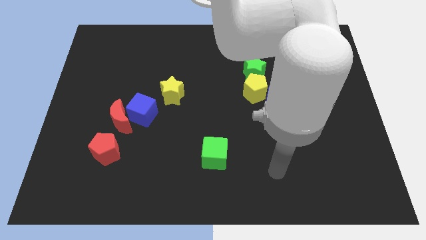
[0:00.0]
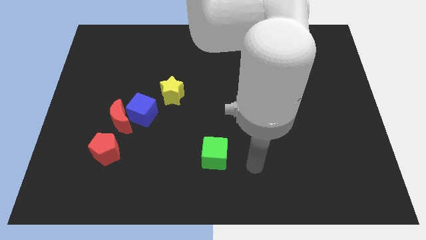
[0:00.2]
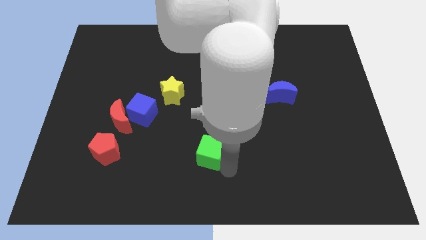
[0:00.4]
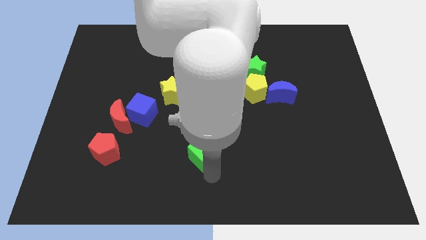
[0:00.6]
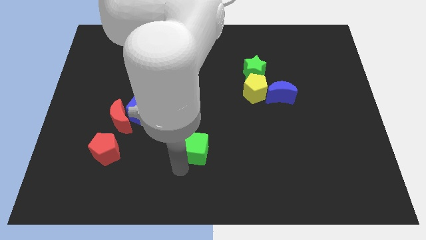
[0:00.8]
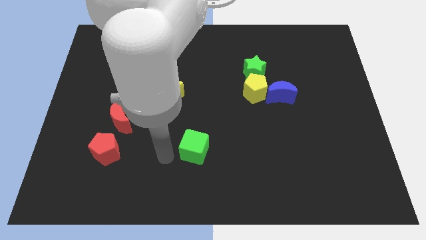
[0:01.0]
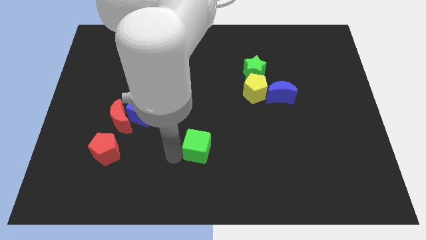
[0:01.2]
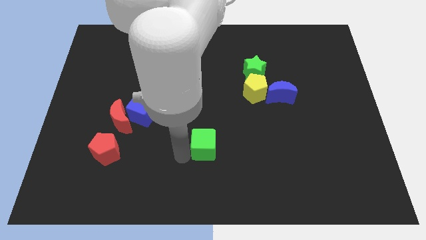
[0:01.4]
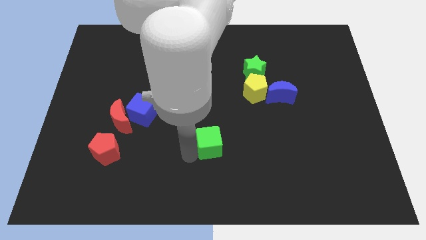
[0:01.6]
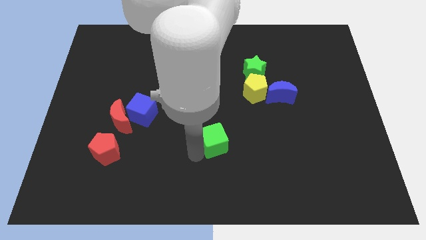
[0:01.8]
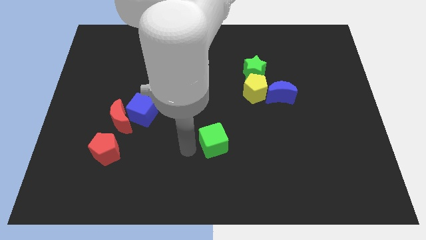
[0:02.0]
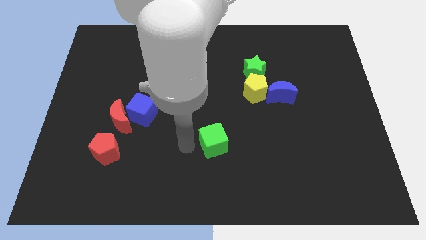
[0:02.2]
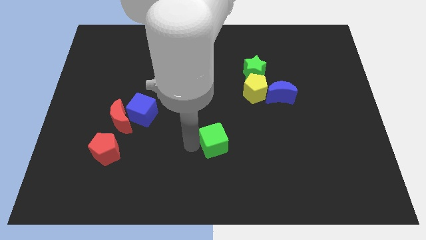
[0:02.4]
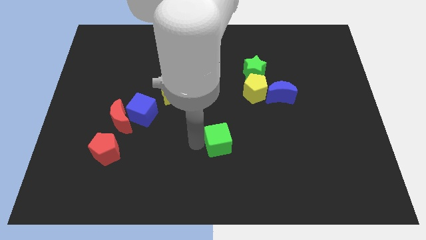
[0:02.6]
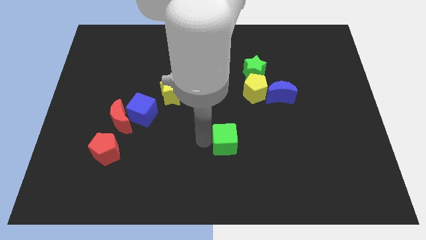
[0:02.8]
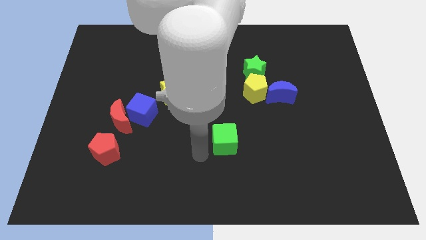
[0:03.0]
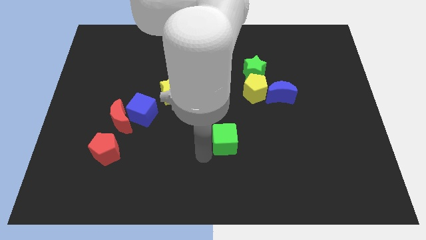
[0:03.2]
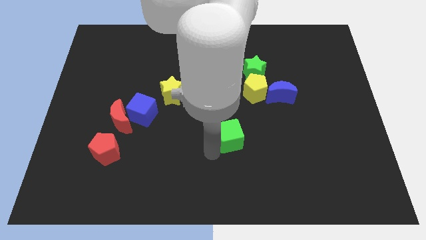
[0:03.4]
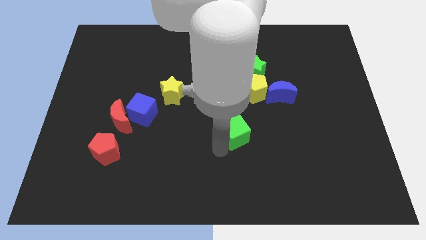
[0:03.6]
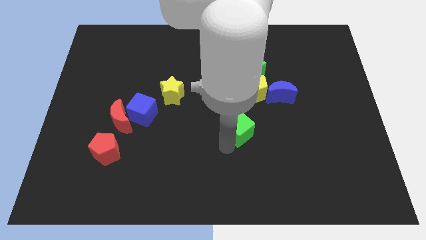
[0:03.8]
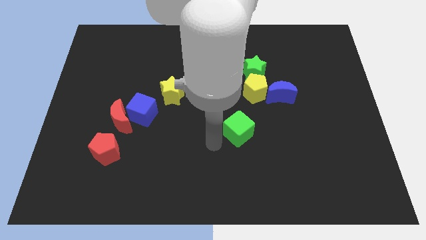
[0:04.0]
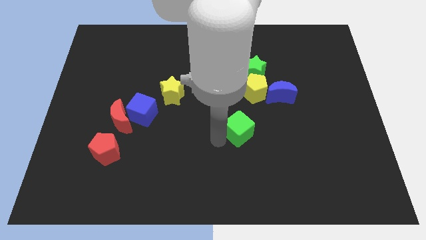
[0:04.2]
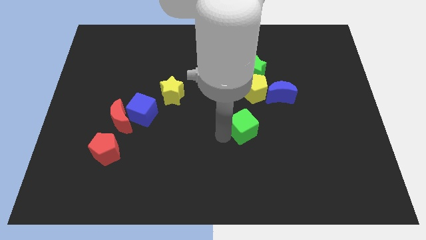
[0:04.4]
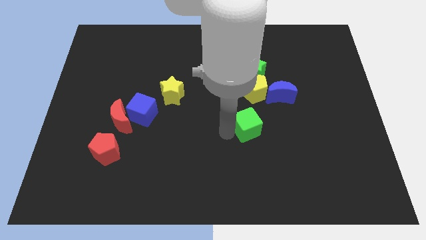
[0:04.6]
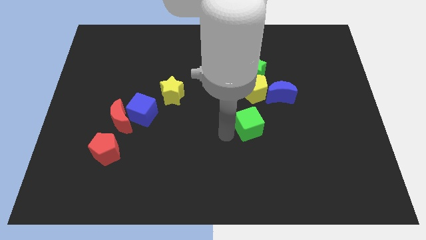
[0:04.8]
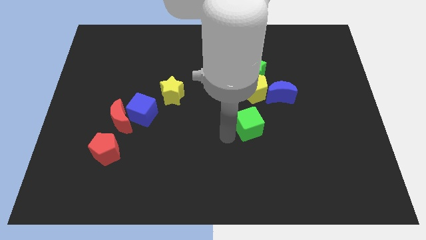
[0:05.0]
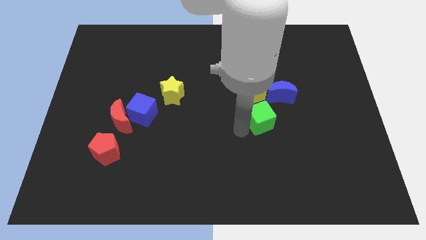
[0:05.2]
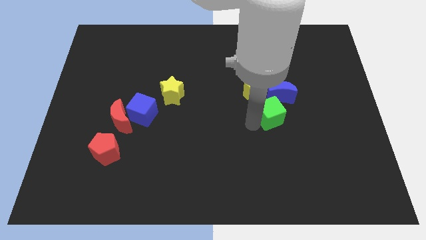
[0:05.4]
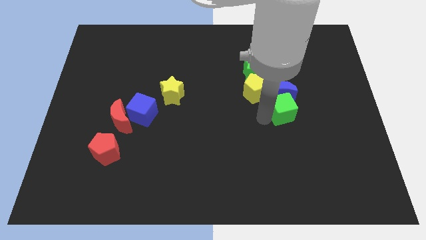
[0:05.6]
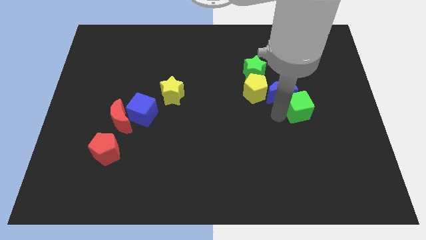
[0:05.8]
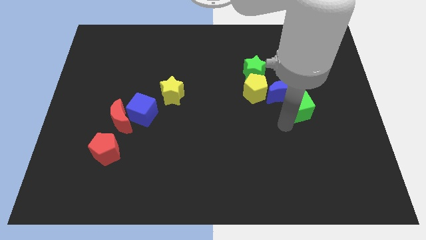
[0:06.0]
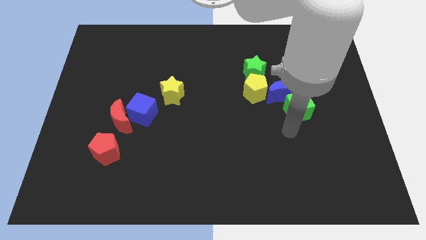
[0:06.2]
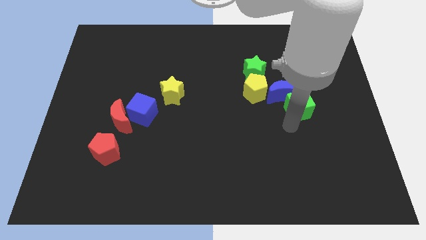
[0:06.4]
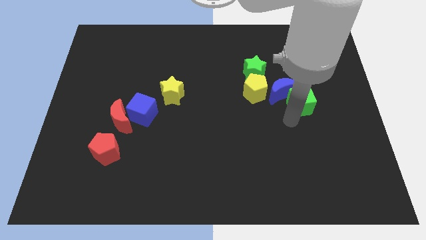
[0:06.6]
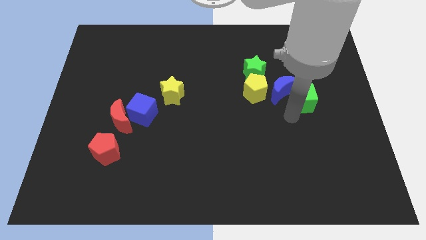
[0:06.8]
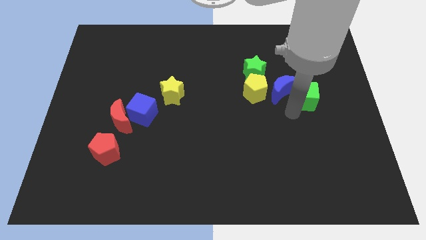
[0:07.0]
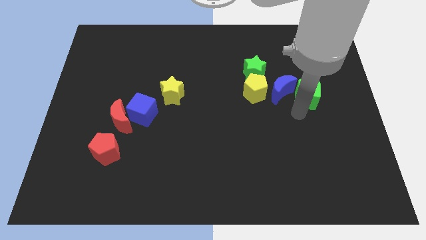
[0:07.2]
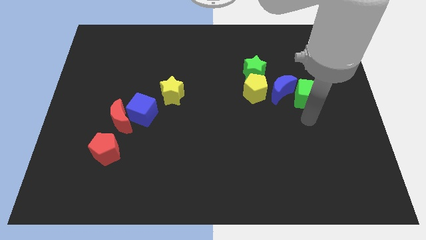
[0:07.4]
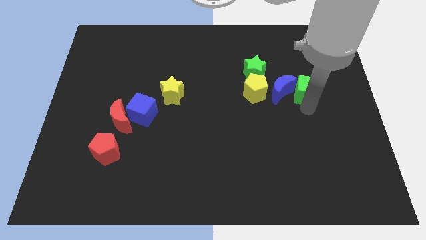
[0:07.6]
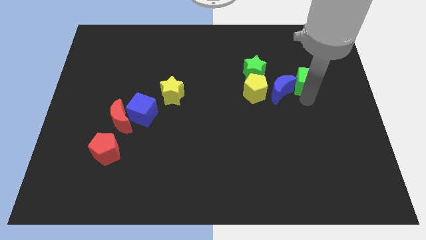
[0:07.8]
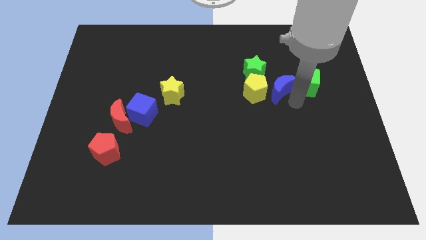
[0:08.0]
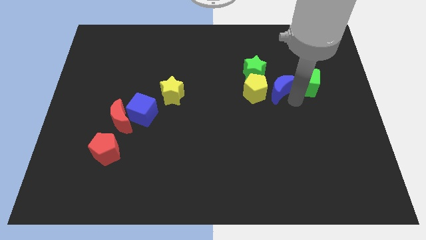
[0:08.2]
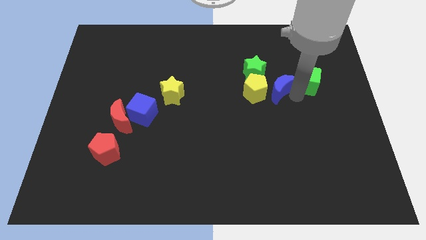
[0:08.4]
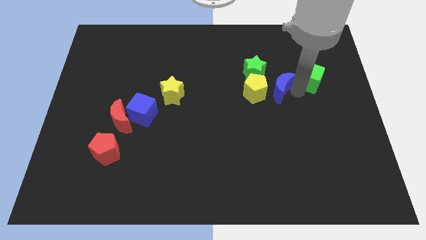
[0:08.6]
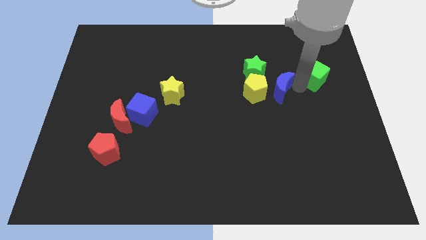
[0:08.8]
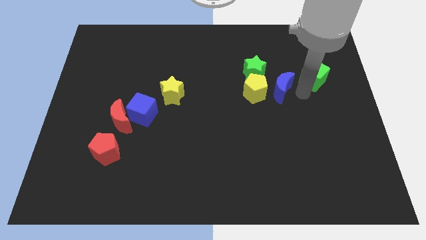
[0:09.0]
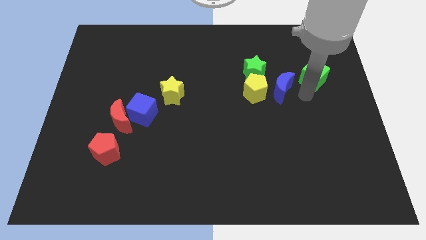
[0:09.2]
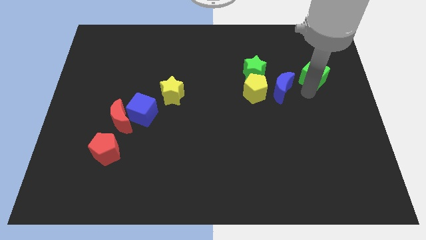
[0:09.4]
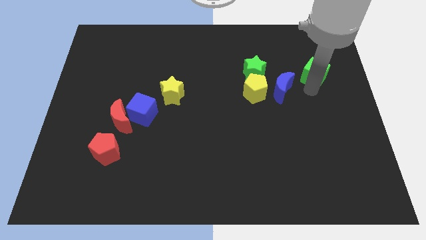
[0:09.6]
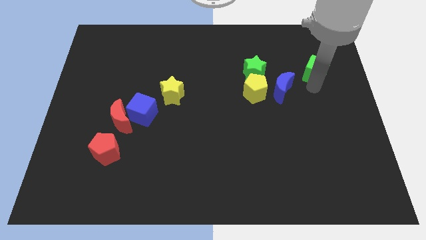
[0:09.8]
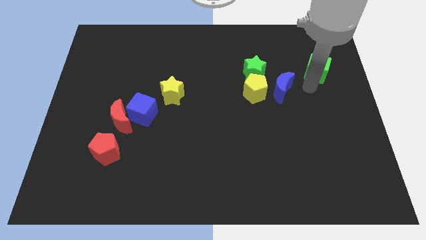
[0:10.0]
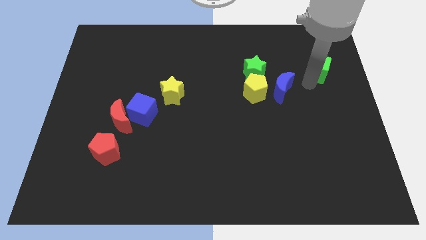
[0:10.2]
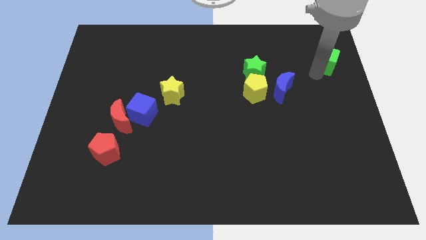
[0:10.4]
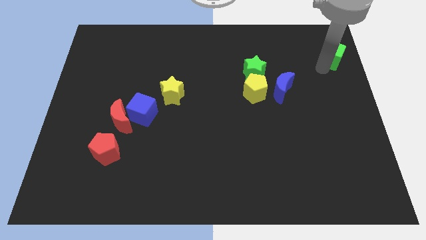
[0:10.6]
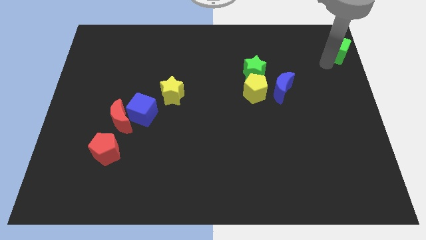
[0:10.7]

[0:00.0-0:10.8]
put the green cube to the top right

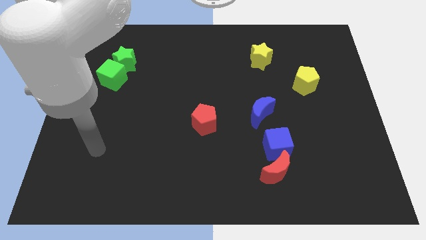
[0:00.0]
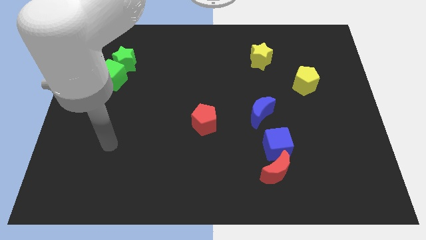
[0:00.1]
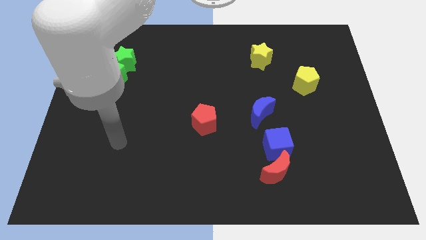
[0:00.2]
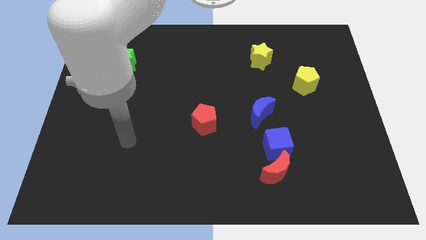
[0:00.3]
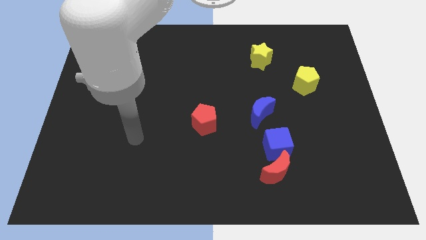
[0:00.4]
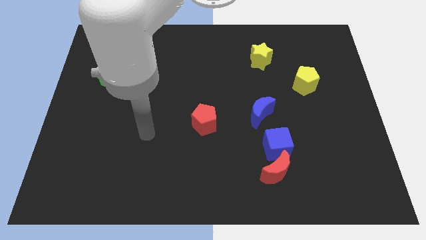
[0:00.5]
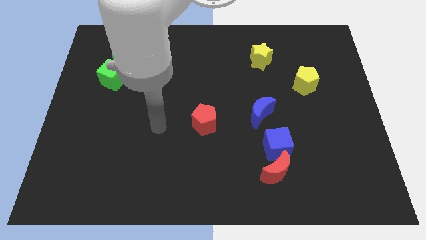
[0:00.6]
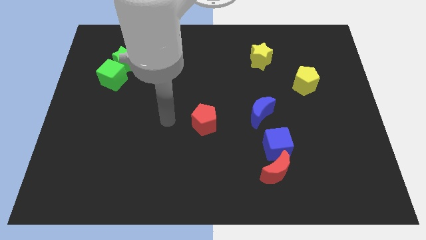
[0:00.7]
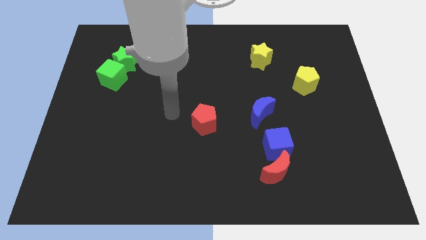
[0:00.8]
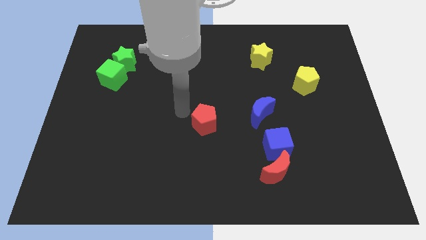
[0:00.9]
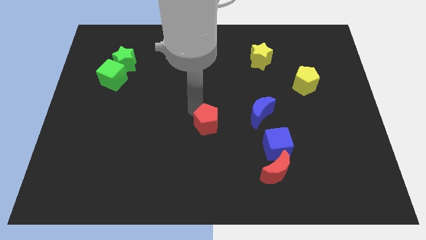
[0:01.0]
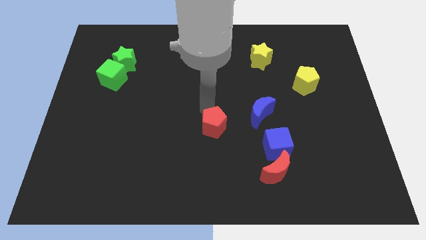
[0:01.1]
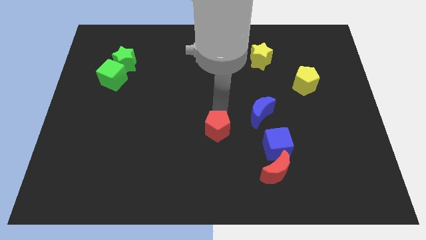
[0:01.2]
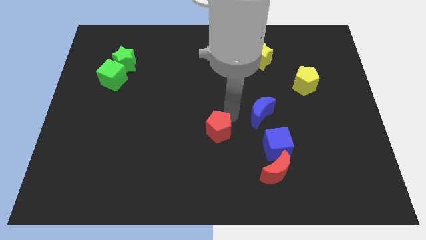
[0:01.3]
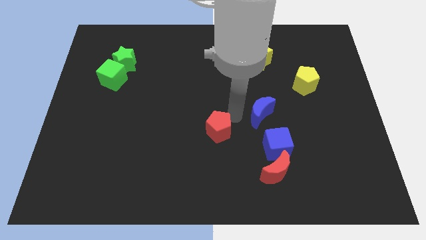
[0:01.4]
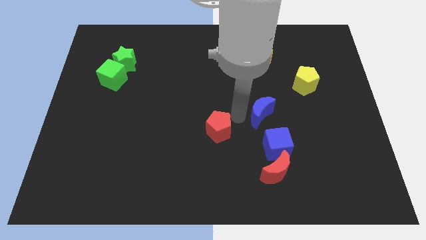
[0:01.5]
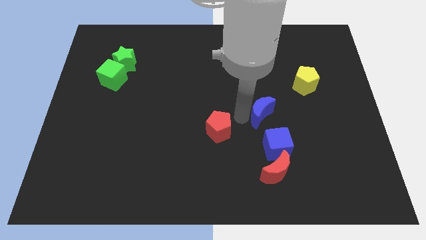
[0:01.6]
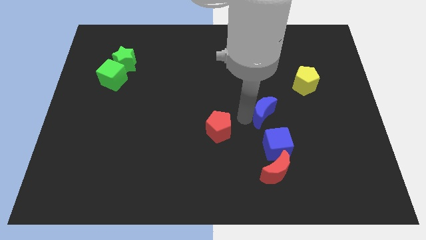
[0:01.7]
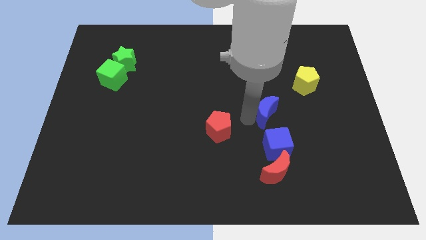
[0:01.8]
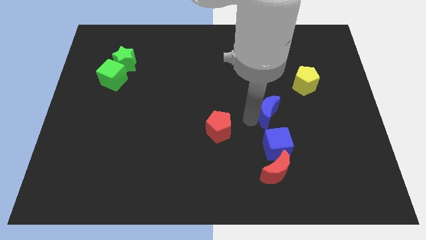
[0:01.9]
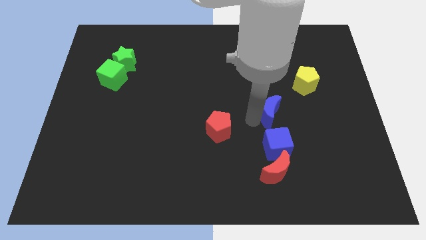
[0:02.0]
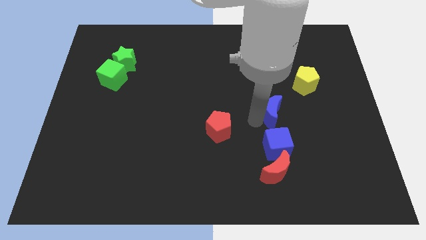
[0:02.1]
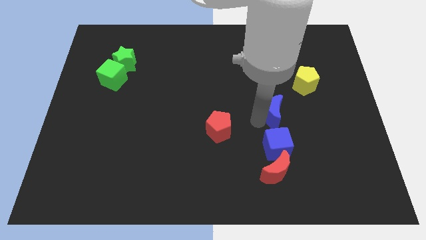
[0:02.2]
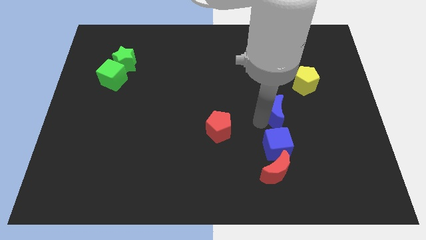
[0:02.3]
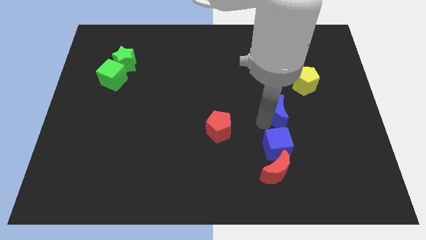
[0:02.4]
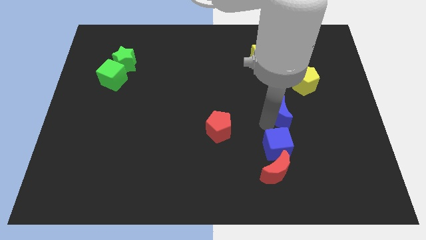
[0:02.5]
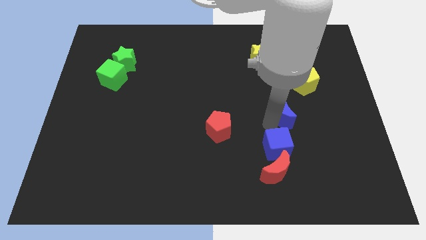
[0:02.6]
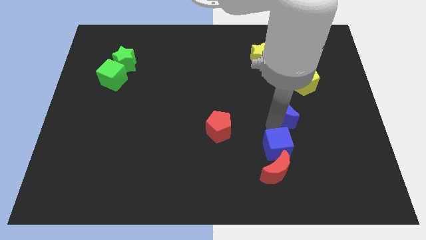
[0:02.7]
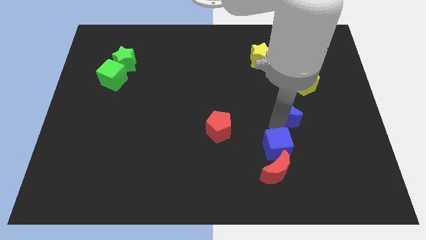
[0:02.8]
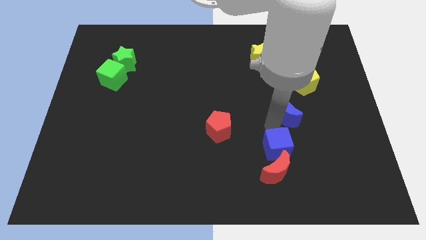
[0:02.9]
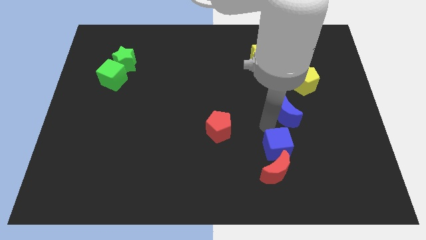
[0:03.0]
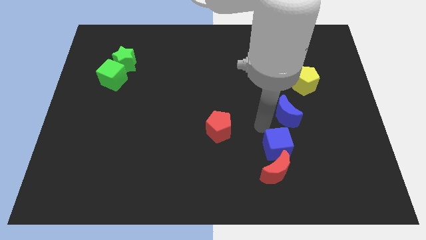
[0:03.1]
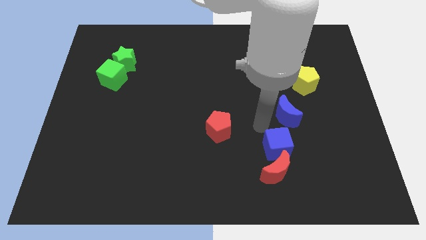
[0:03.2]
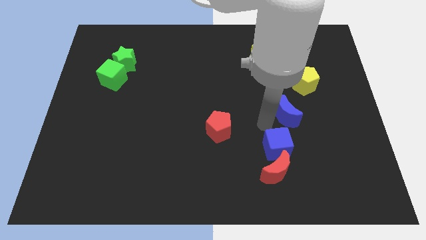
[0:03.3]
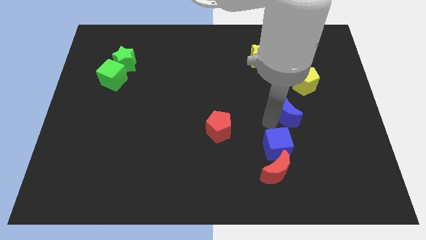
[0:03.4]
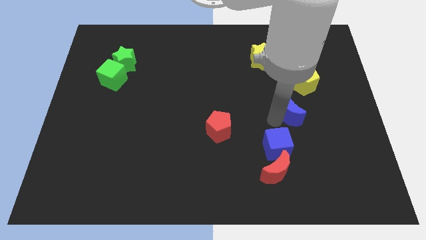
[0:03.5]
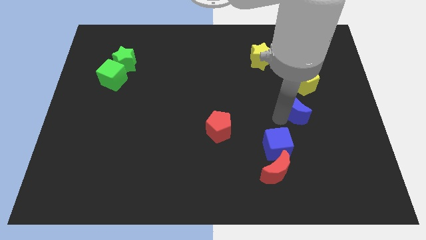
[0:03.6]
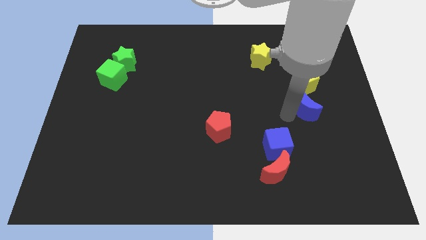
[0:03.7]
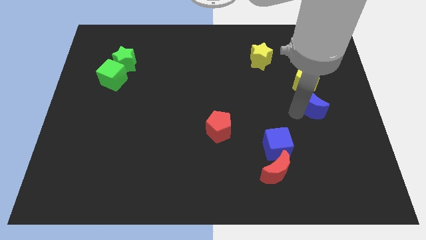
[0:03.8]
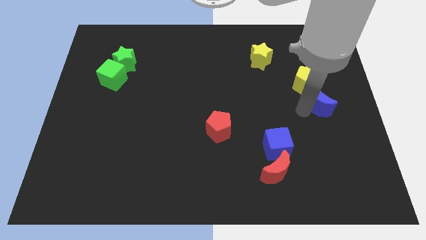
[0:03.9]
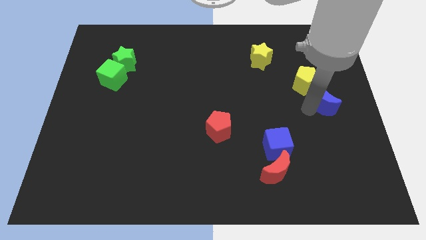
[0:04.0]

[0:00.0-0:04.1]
move the blue moon to the right side of the board
